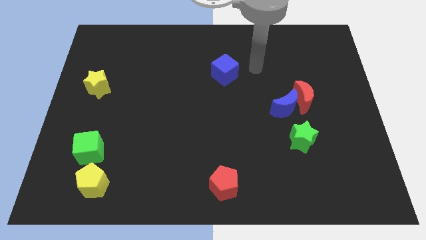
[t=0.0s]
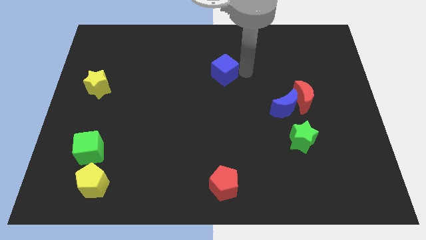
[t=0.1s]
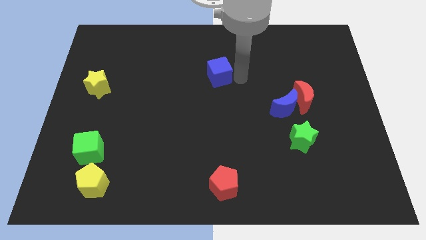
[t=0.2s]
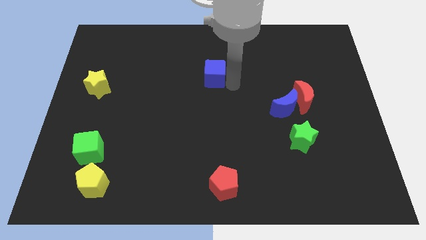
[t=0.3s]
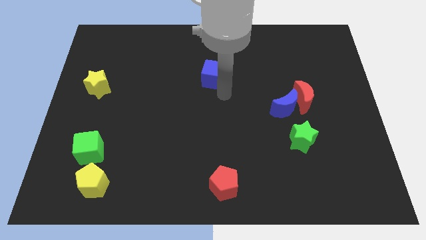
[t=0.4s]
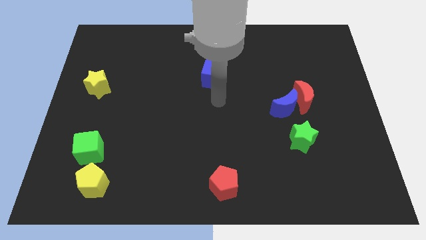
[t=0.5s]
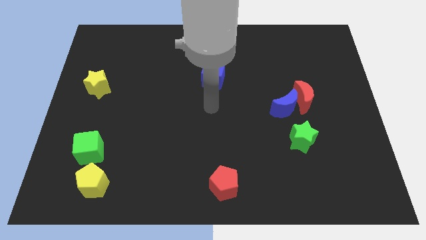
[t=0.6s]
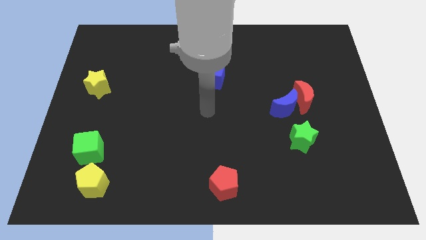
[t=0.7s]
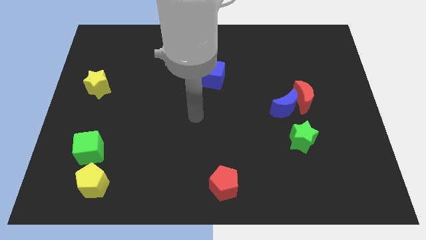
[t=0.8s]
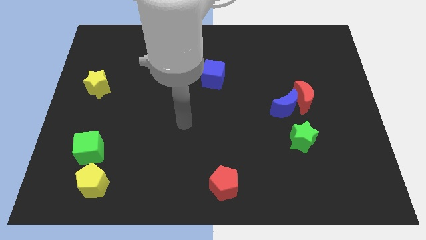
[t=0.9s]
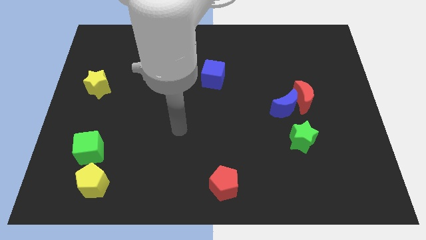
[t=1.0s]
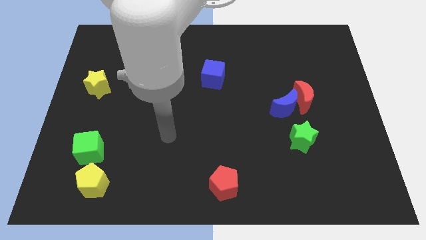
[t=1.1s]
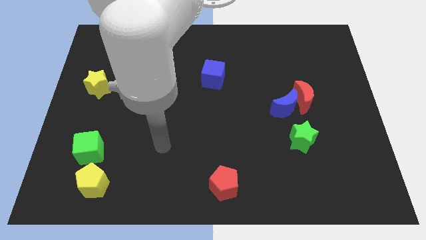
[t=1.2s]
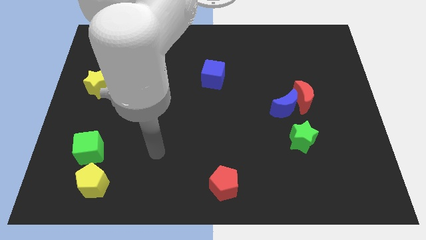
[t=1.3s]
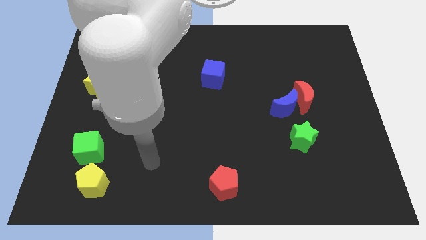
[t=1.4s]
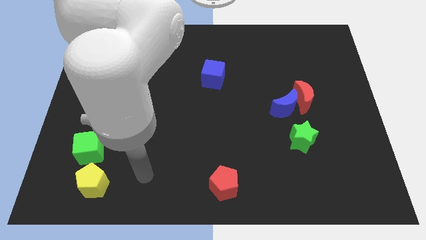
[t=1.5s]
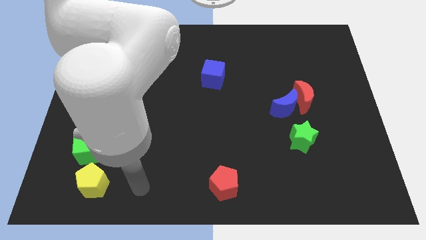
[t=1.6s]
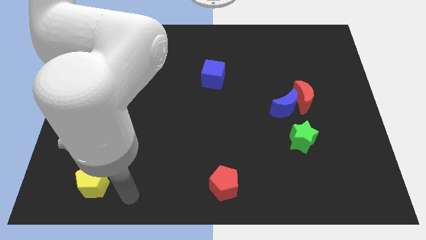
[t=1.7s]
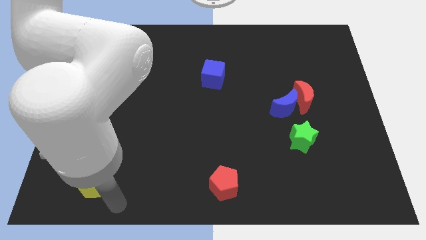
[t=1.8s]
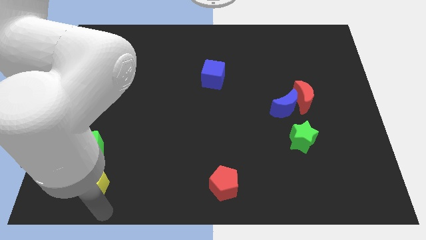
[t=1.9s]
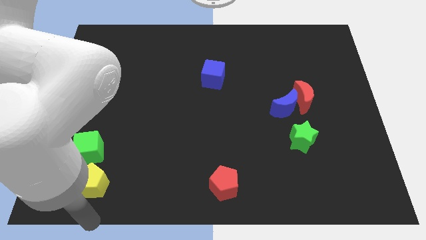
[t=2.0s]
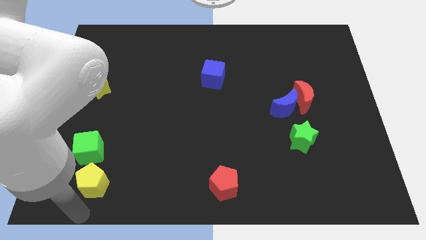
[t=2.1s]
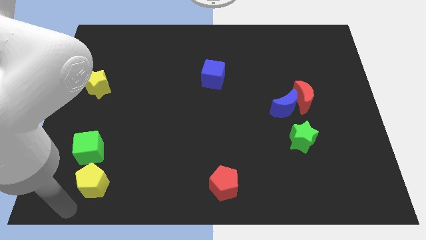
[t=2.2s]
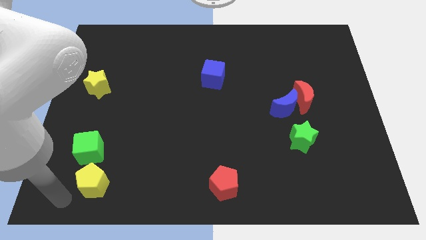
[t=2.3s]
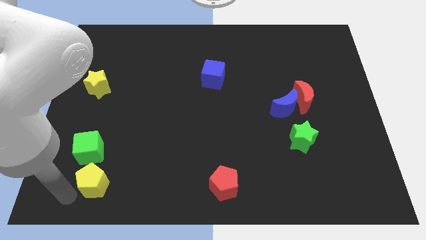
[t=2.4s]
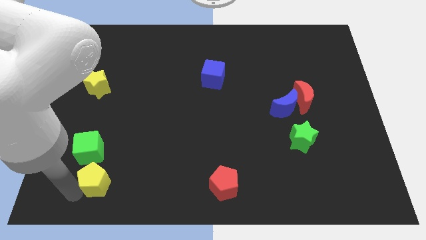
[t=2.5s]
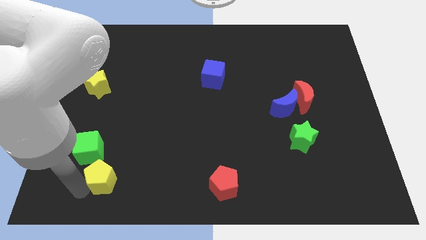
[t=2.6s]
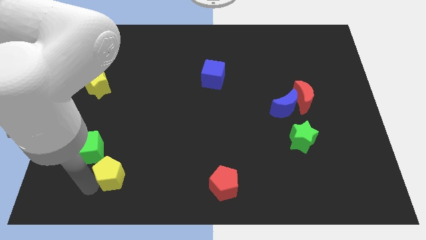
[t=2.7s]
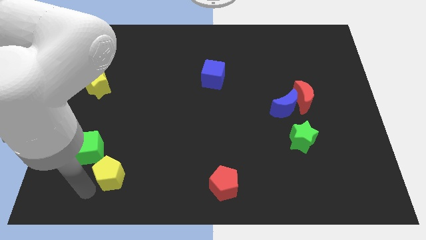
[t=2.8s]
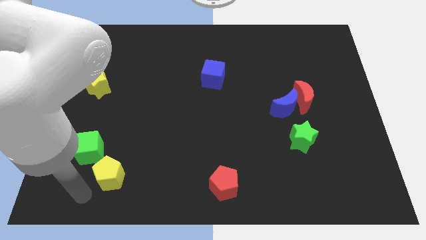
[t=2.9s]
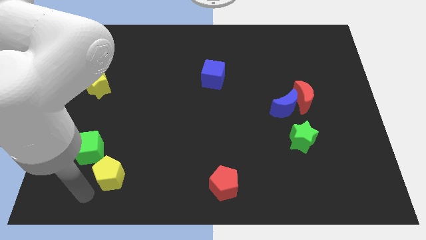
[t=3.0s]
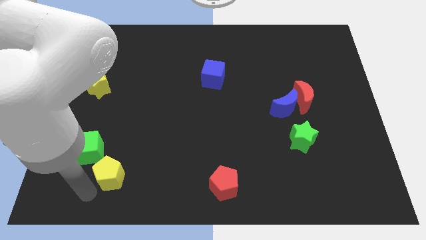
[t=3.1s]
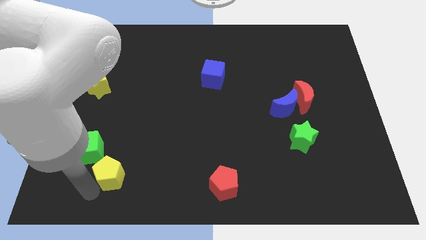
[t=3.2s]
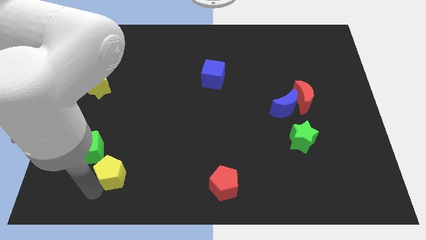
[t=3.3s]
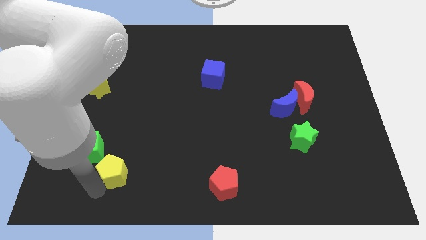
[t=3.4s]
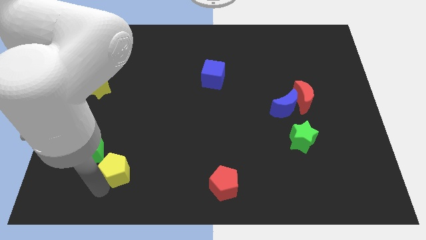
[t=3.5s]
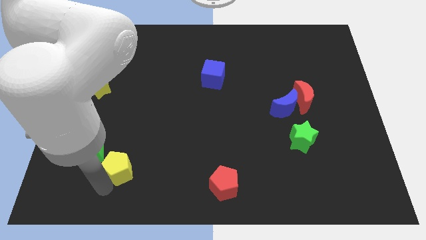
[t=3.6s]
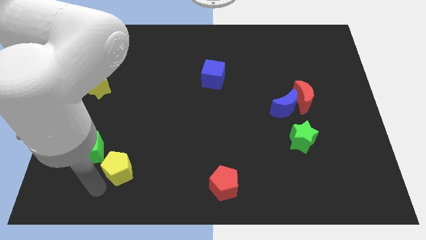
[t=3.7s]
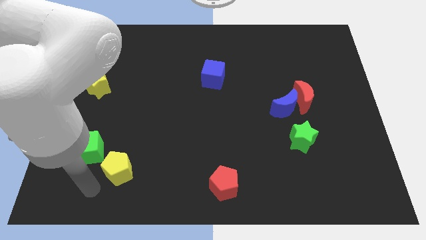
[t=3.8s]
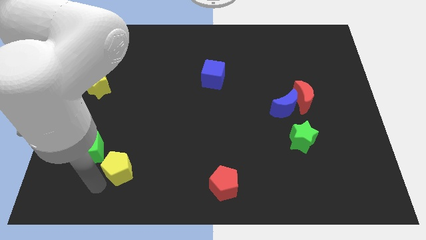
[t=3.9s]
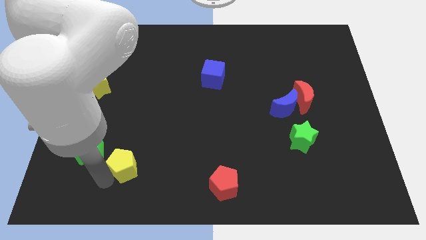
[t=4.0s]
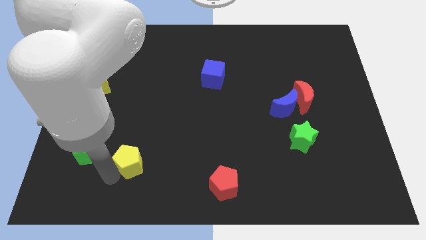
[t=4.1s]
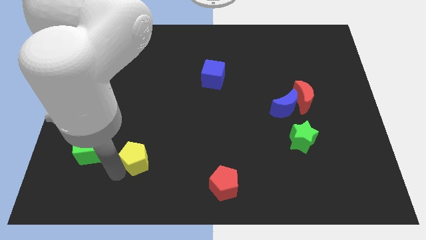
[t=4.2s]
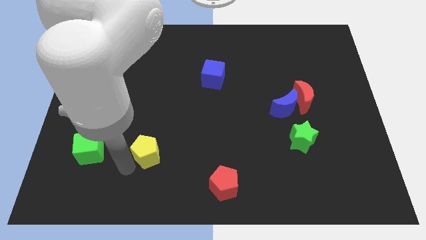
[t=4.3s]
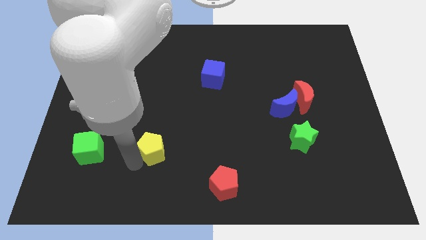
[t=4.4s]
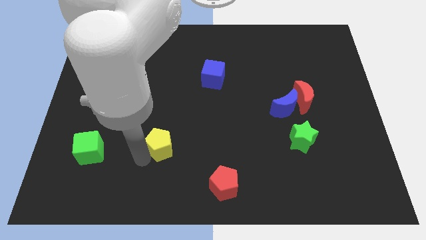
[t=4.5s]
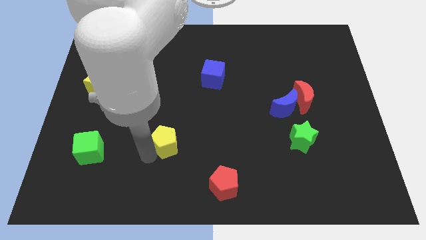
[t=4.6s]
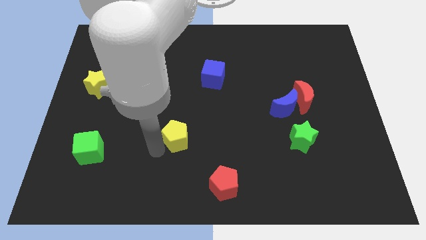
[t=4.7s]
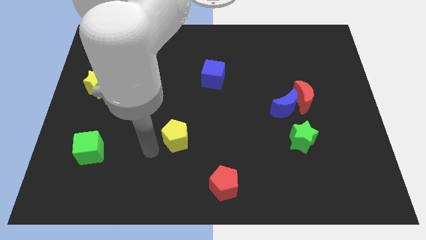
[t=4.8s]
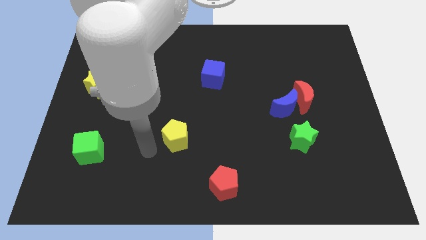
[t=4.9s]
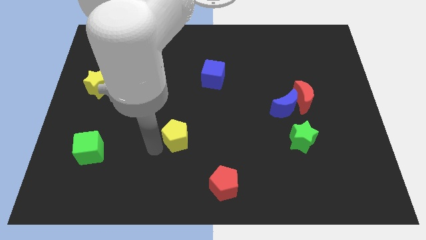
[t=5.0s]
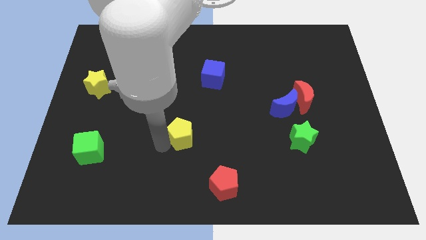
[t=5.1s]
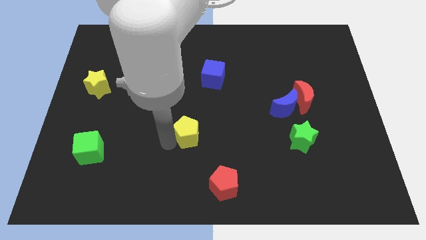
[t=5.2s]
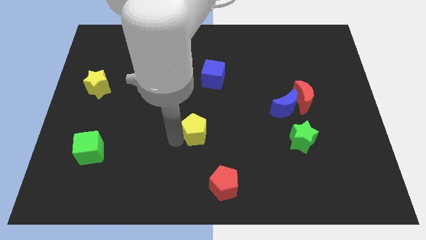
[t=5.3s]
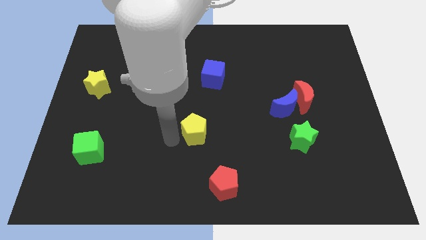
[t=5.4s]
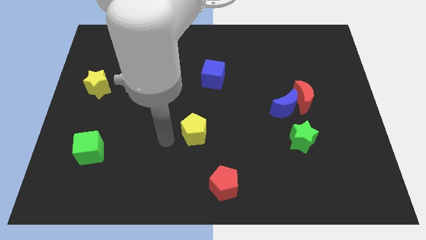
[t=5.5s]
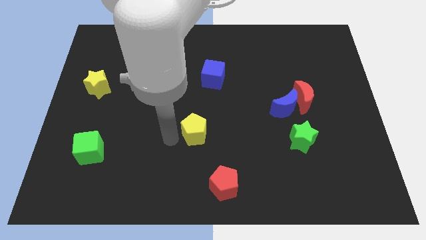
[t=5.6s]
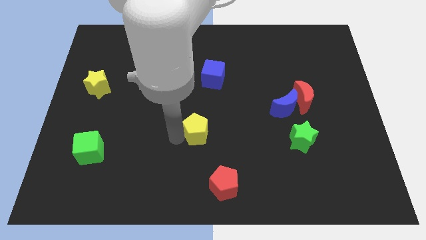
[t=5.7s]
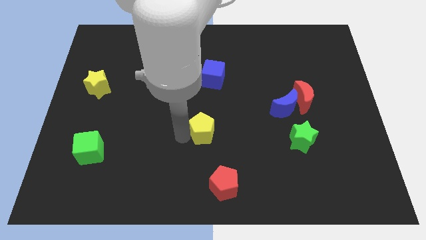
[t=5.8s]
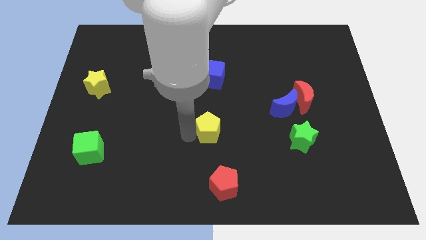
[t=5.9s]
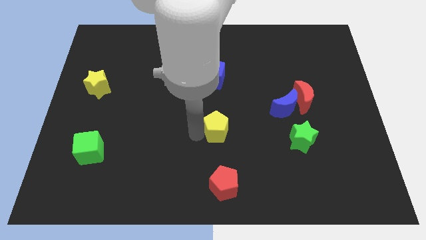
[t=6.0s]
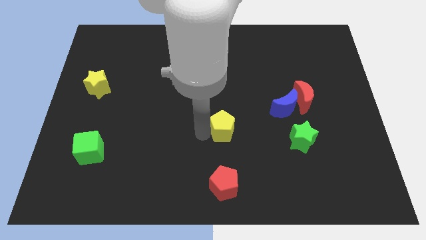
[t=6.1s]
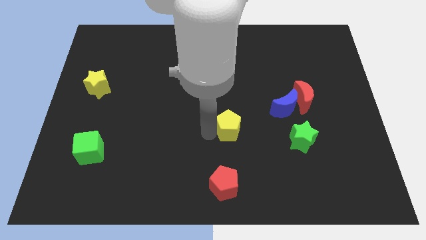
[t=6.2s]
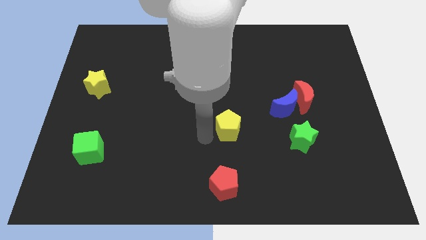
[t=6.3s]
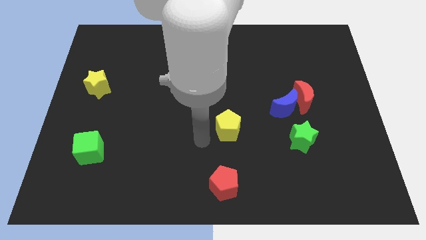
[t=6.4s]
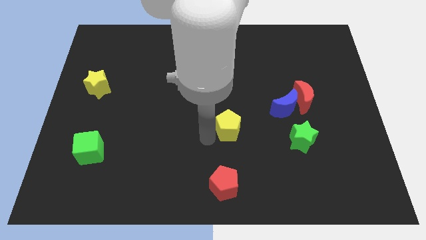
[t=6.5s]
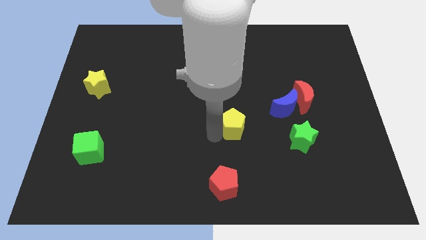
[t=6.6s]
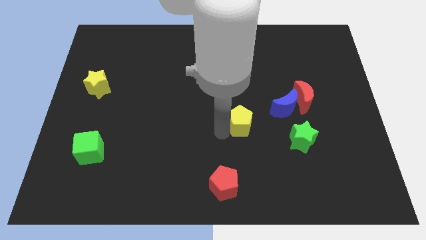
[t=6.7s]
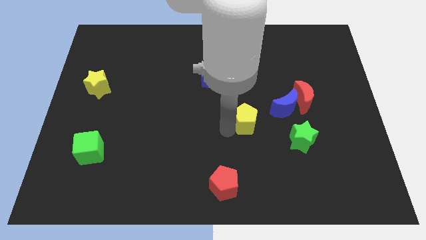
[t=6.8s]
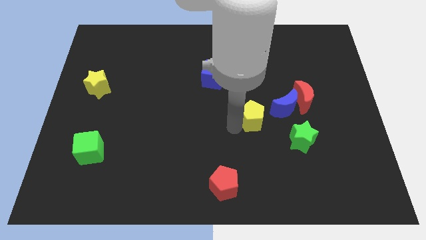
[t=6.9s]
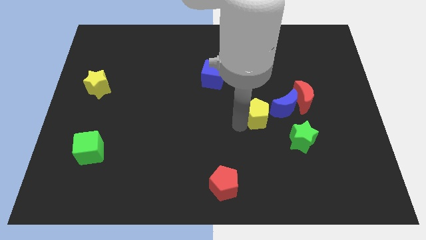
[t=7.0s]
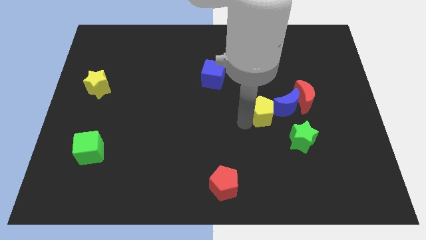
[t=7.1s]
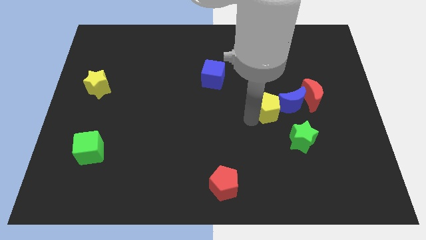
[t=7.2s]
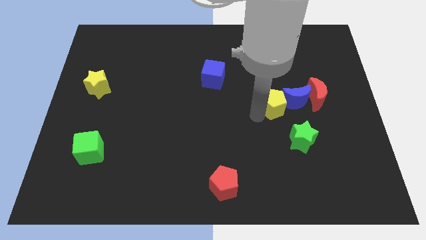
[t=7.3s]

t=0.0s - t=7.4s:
push the yellow pentagon close to the blue moon
